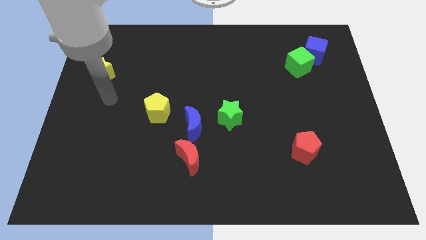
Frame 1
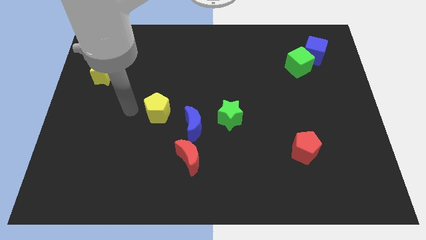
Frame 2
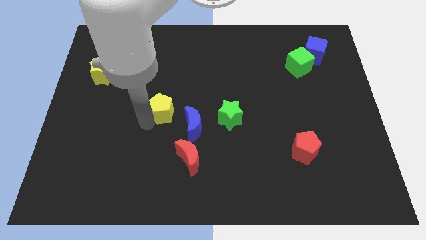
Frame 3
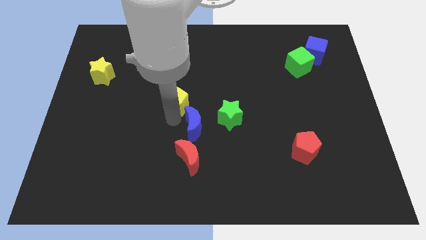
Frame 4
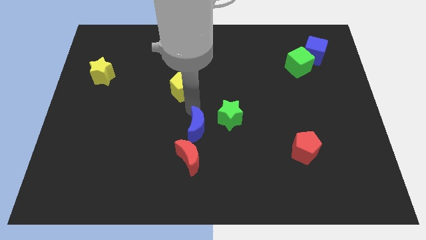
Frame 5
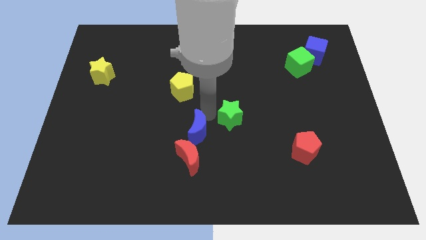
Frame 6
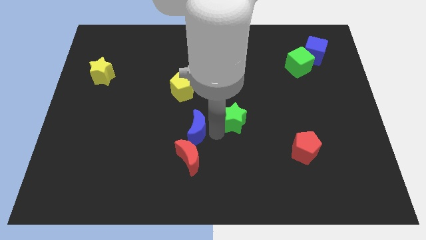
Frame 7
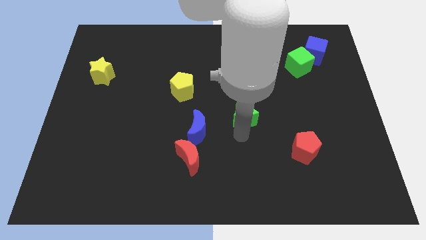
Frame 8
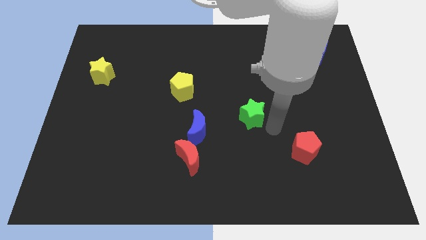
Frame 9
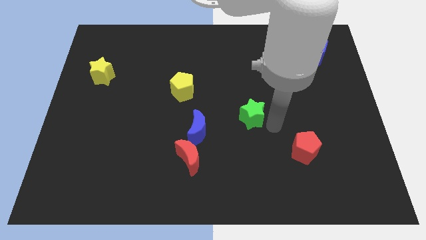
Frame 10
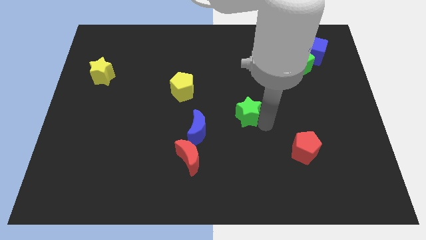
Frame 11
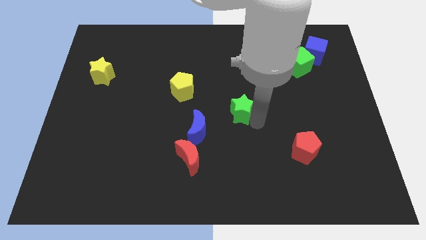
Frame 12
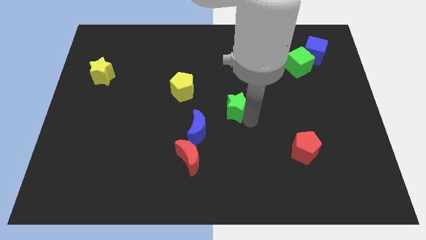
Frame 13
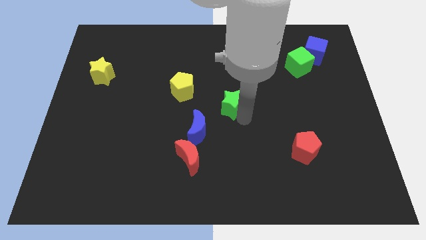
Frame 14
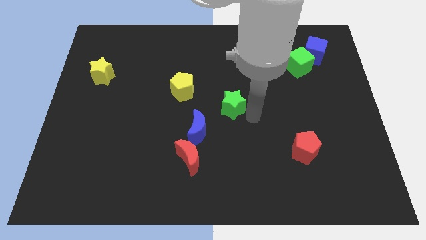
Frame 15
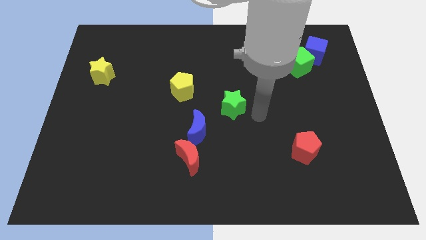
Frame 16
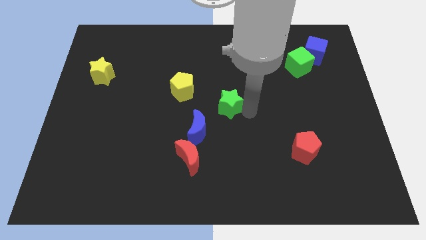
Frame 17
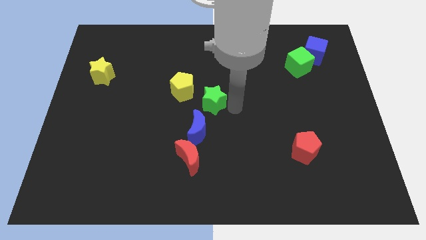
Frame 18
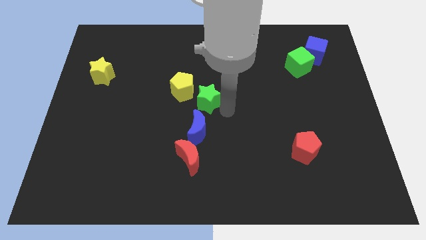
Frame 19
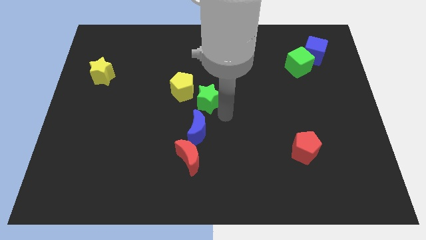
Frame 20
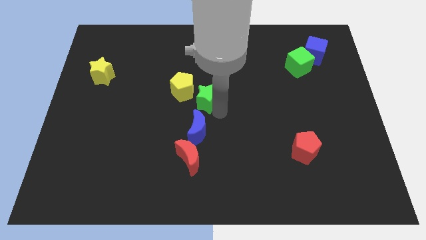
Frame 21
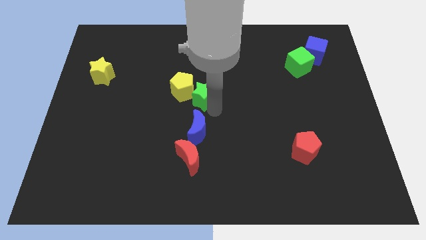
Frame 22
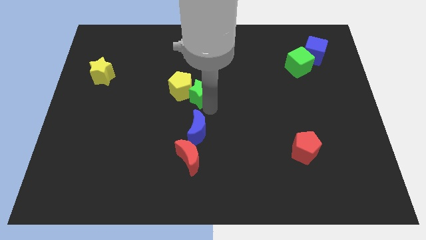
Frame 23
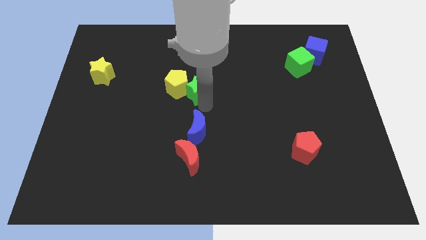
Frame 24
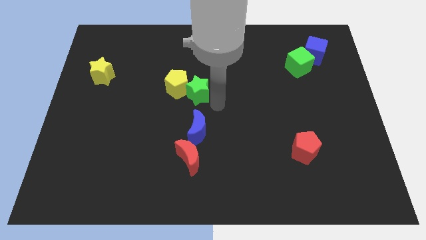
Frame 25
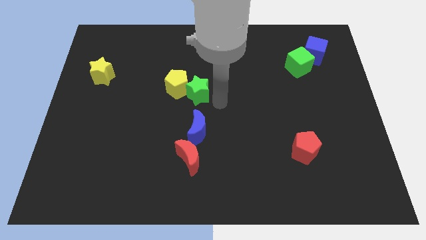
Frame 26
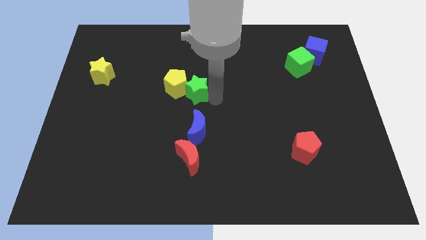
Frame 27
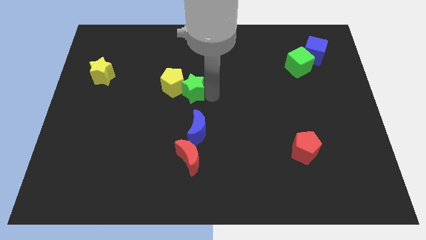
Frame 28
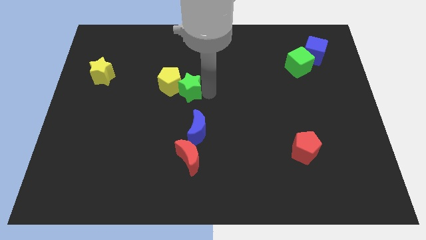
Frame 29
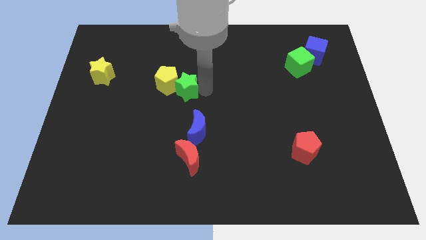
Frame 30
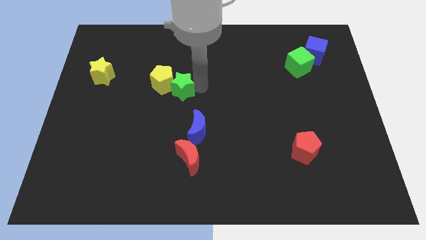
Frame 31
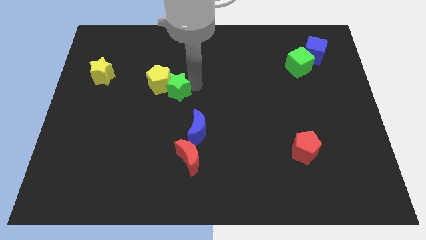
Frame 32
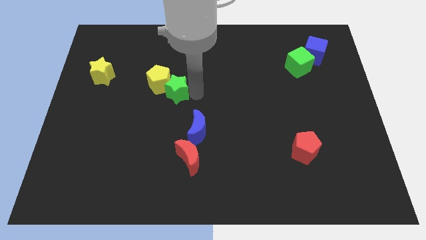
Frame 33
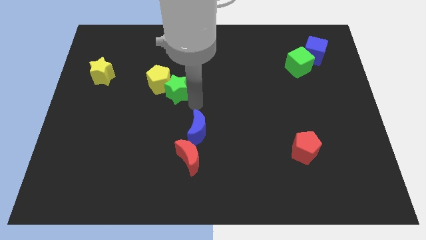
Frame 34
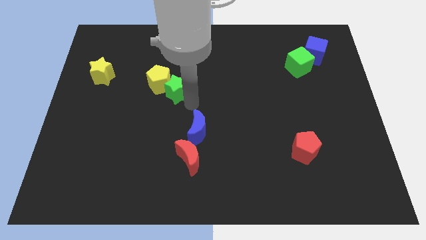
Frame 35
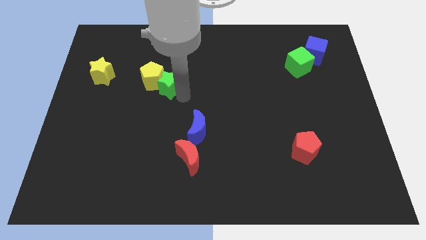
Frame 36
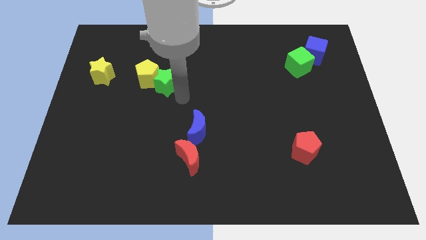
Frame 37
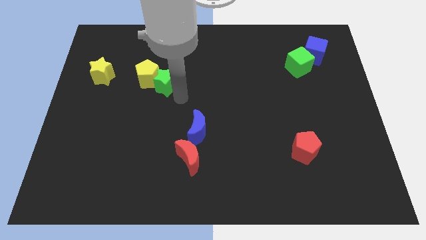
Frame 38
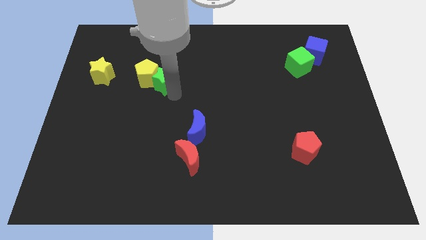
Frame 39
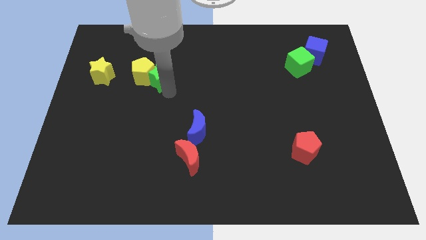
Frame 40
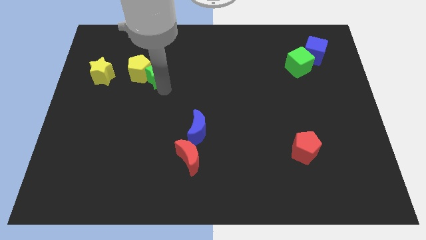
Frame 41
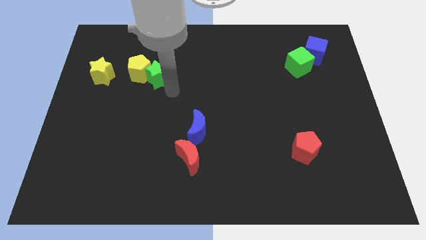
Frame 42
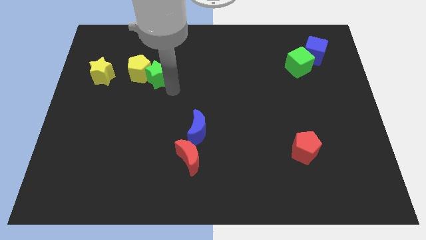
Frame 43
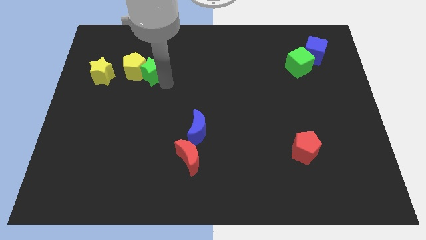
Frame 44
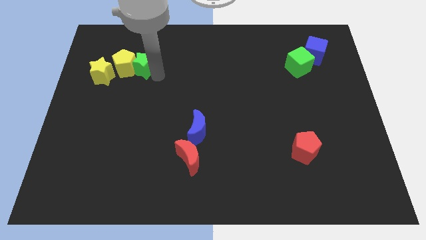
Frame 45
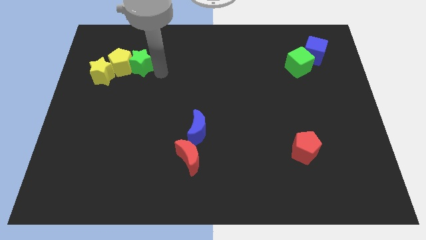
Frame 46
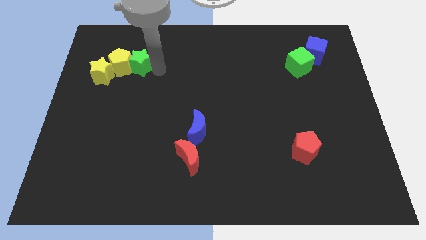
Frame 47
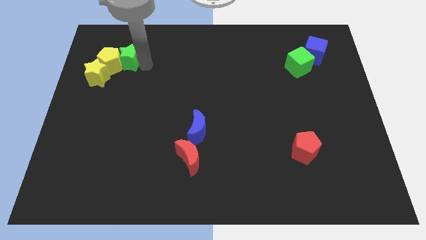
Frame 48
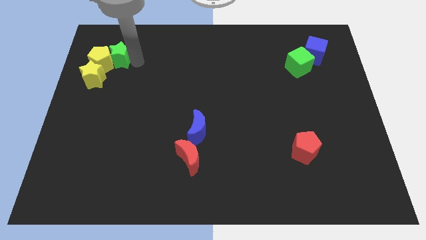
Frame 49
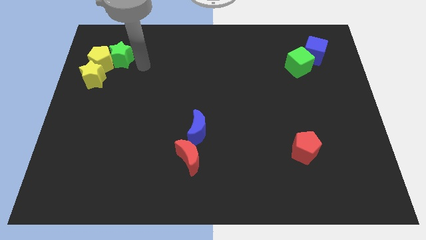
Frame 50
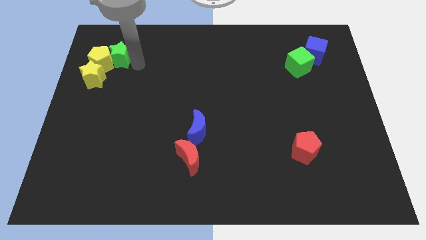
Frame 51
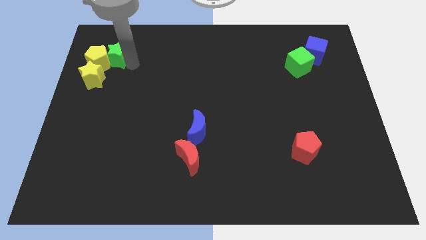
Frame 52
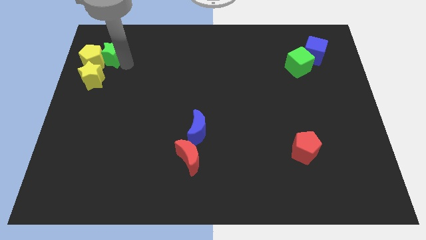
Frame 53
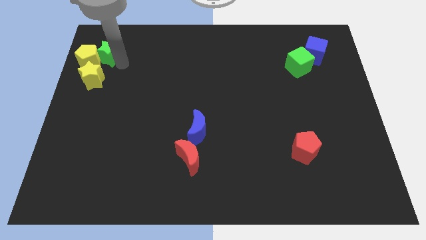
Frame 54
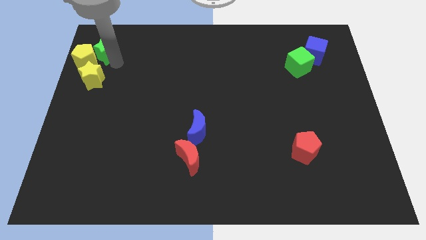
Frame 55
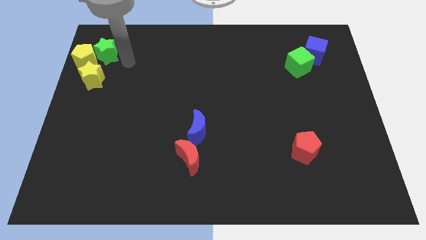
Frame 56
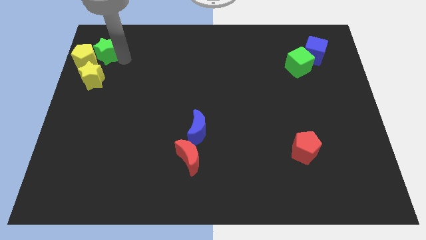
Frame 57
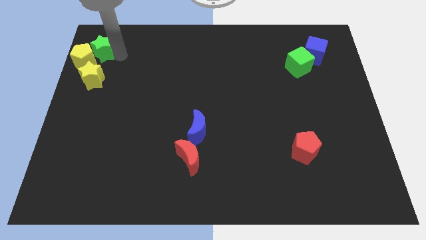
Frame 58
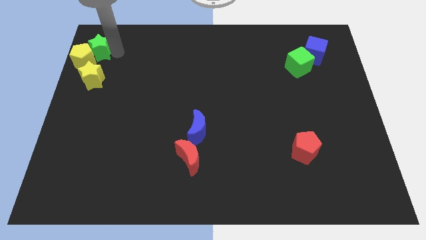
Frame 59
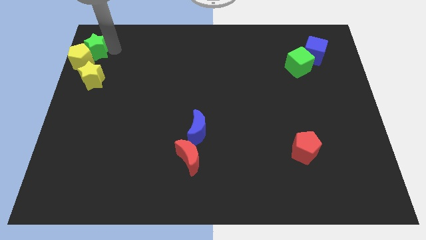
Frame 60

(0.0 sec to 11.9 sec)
put the green star to the upper left corner

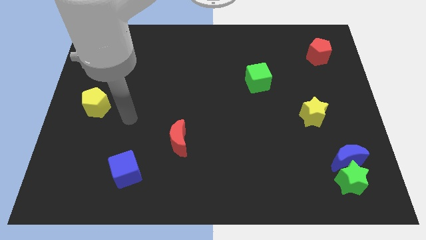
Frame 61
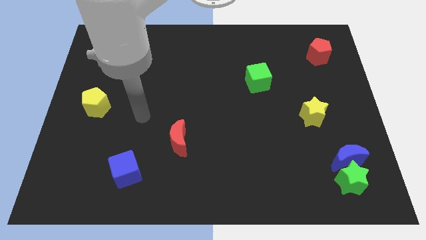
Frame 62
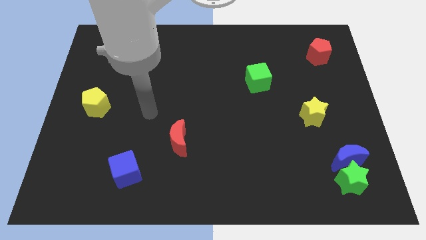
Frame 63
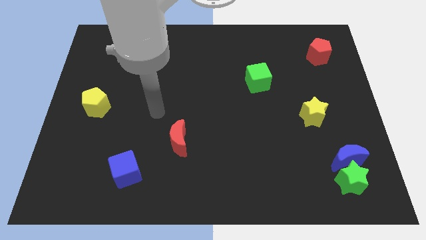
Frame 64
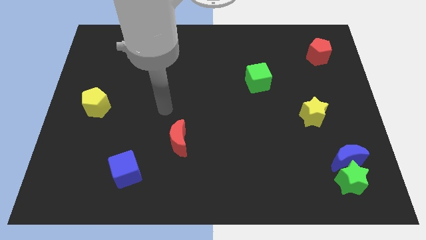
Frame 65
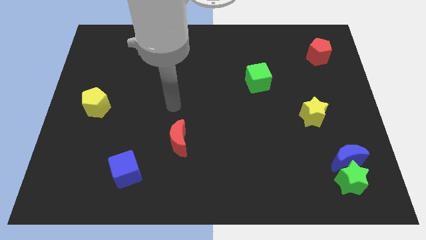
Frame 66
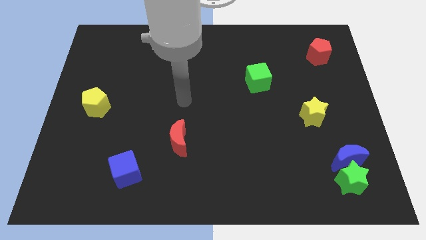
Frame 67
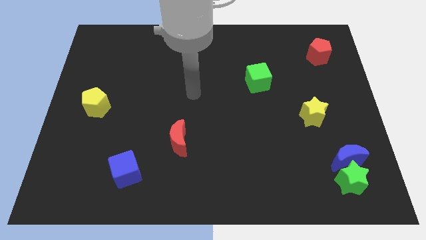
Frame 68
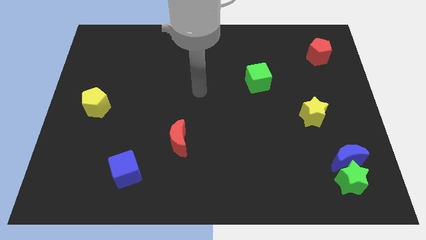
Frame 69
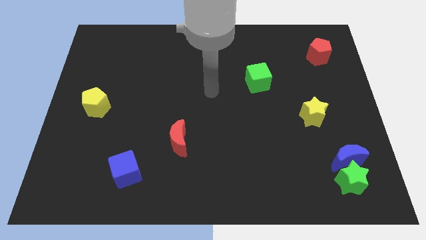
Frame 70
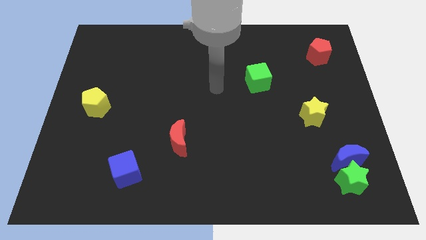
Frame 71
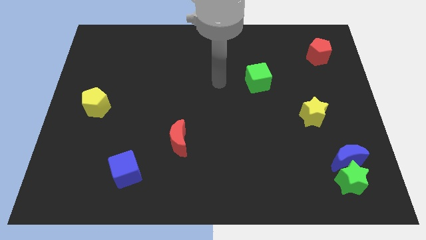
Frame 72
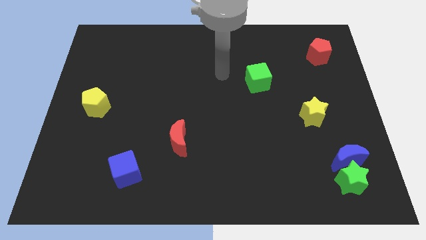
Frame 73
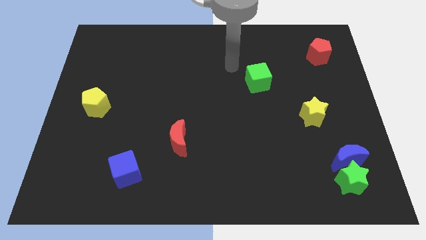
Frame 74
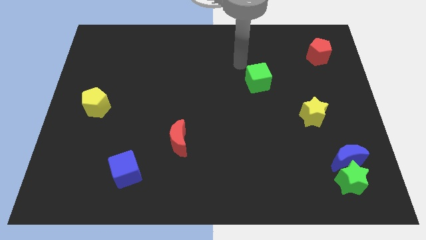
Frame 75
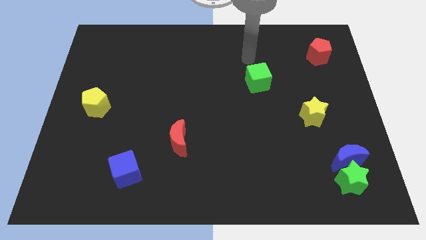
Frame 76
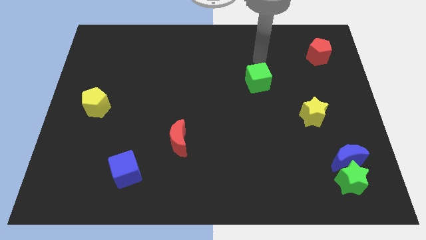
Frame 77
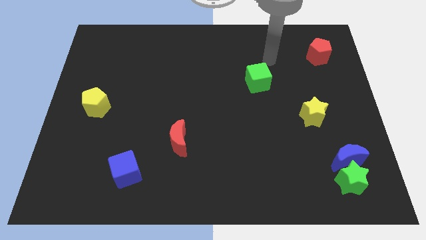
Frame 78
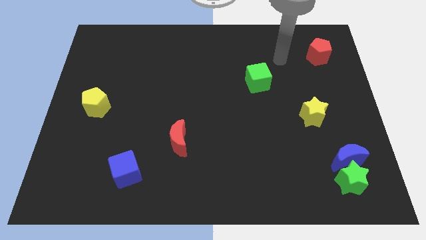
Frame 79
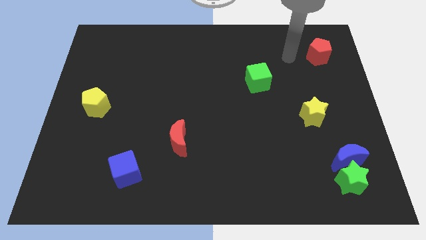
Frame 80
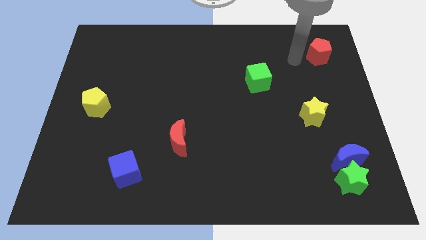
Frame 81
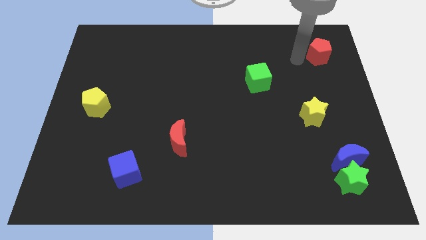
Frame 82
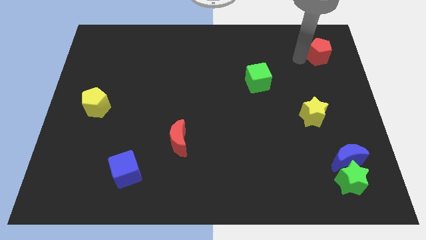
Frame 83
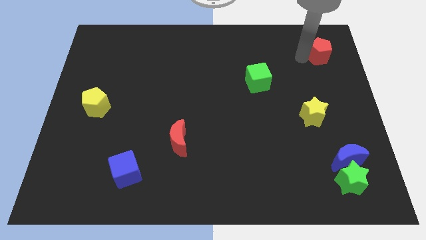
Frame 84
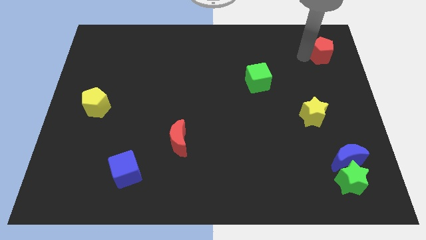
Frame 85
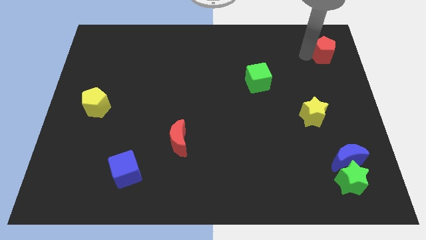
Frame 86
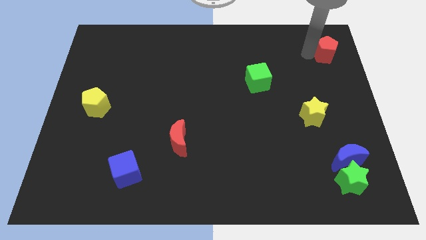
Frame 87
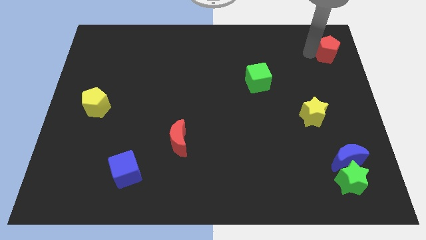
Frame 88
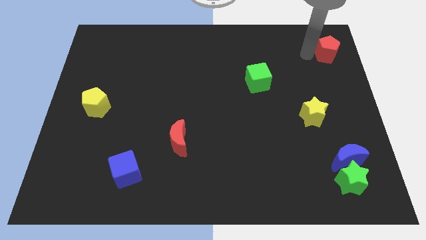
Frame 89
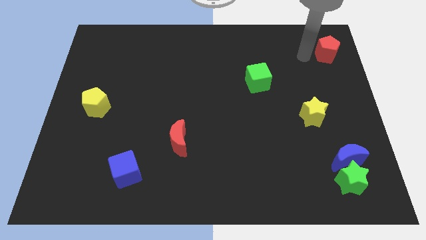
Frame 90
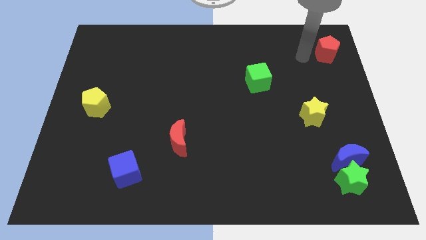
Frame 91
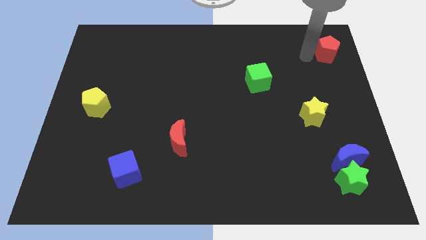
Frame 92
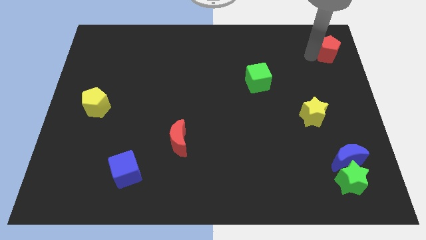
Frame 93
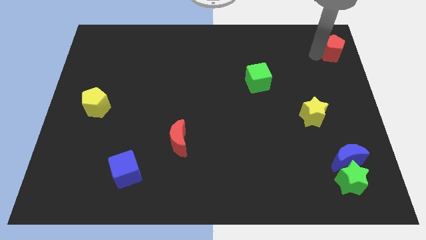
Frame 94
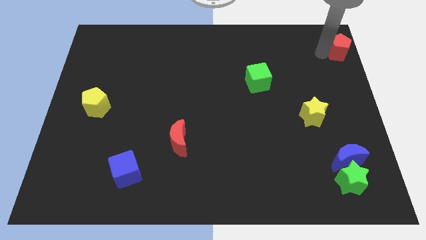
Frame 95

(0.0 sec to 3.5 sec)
push the red pentagon to the top right
